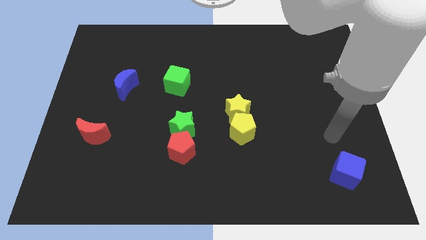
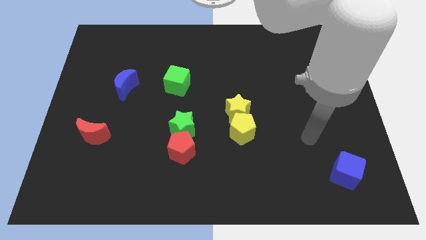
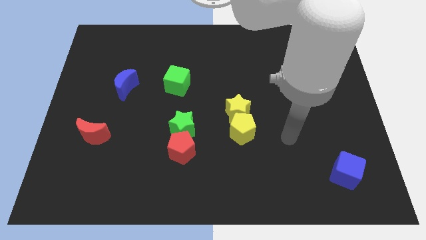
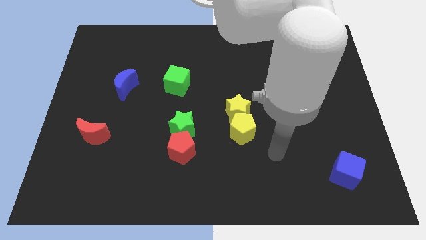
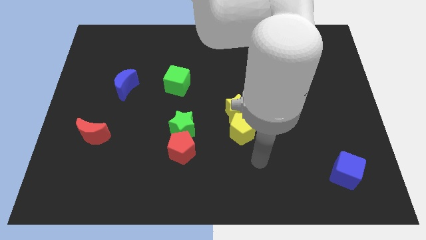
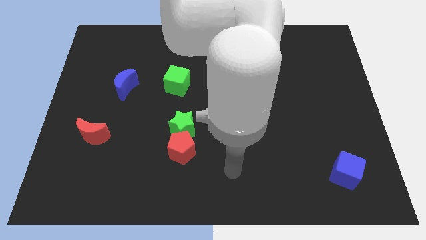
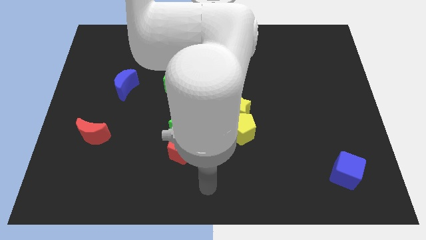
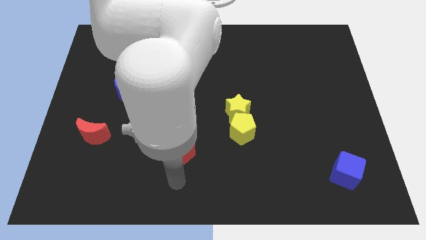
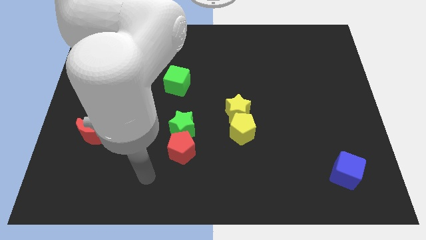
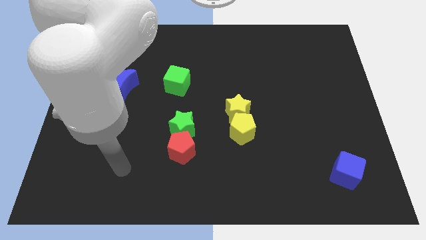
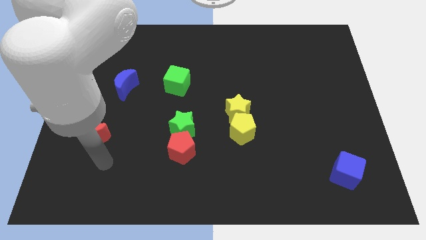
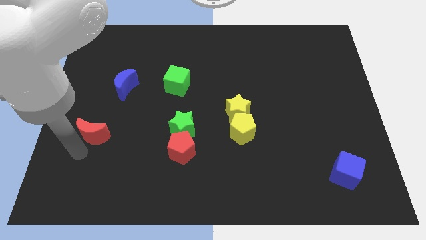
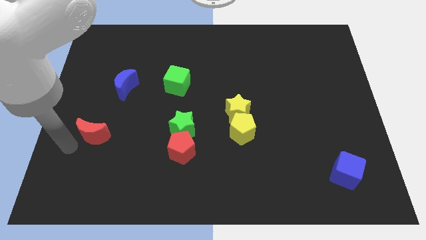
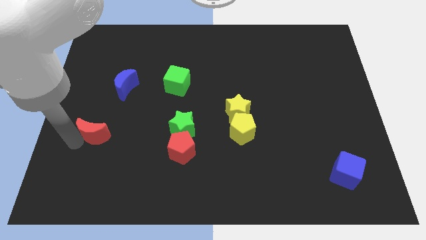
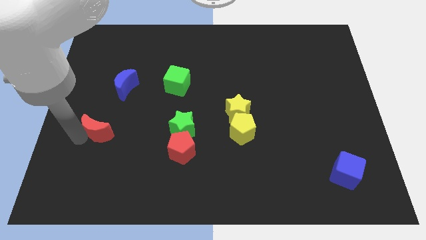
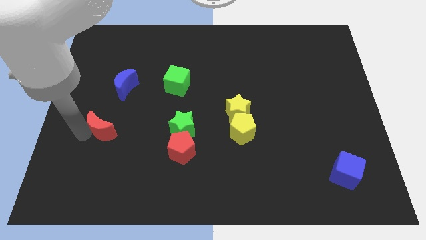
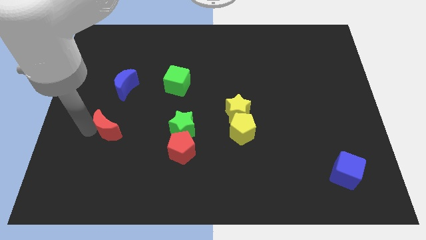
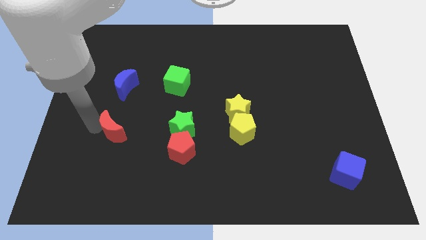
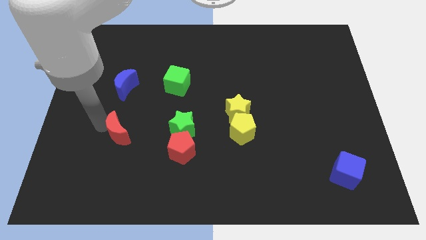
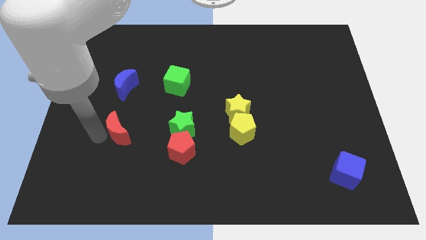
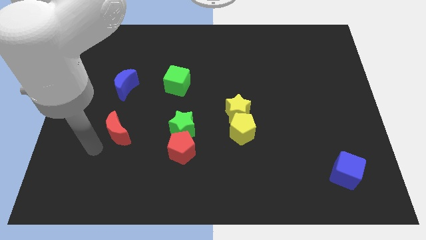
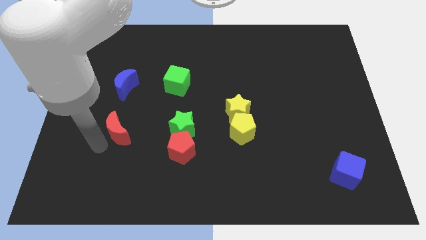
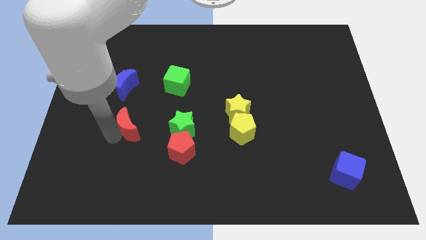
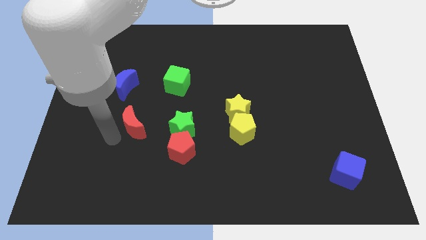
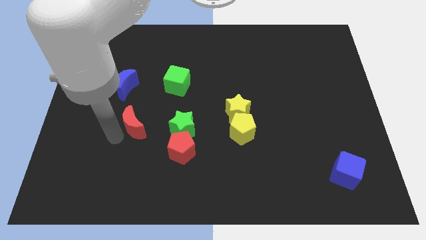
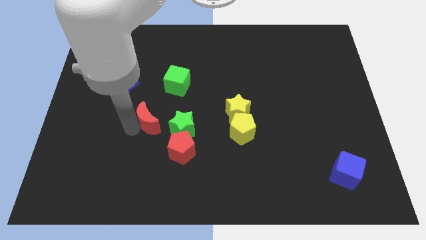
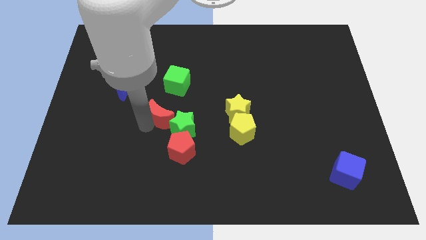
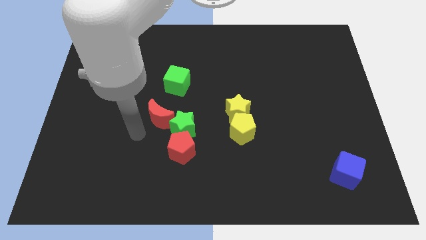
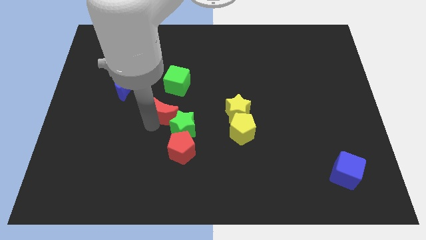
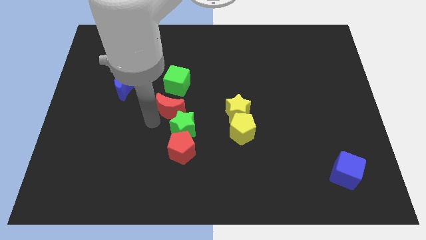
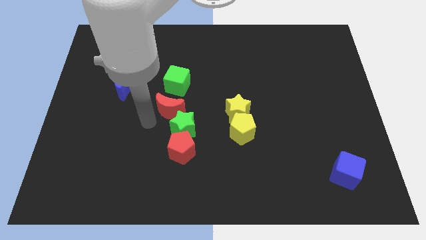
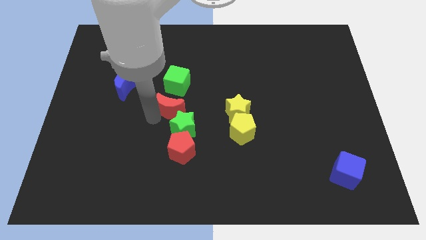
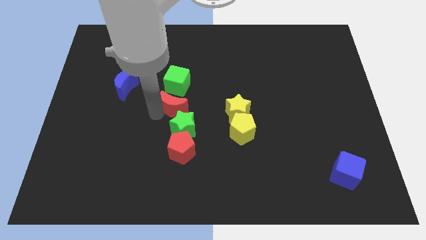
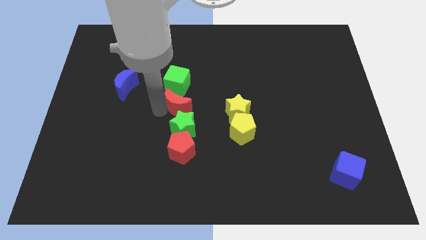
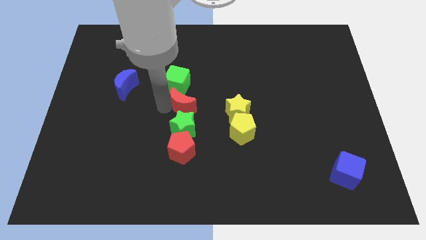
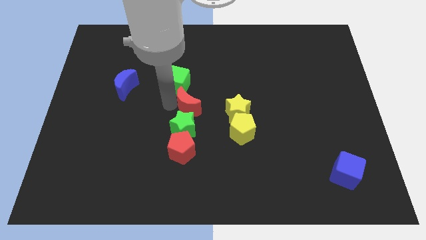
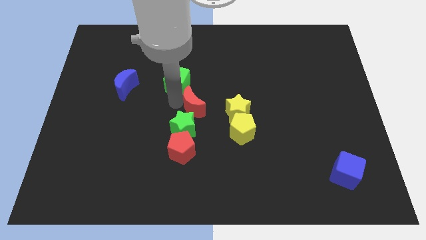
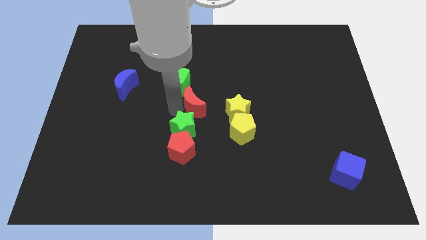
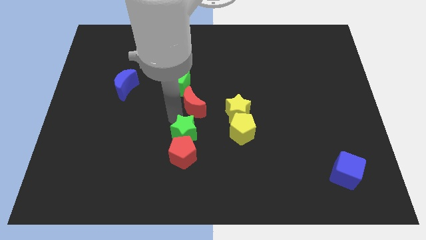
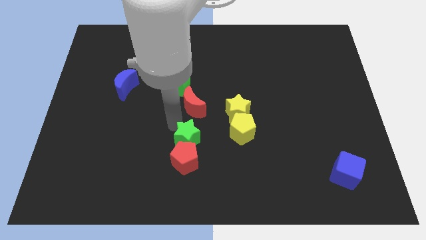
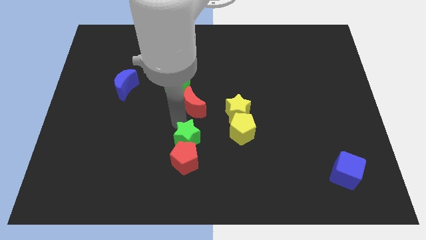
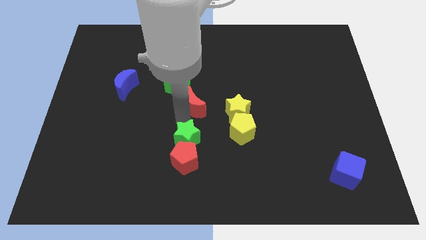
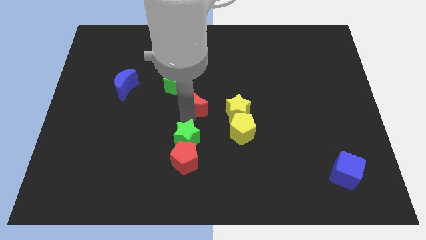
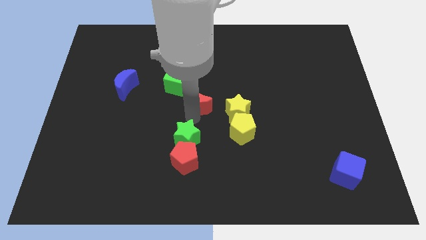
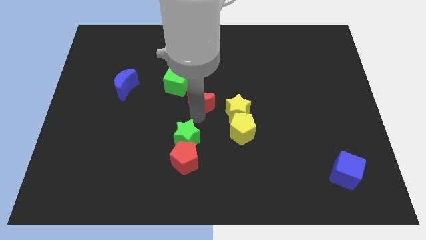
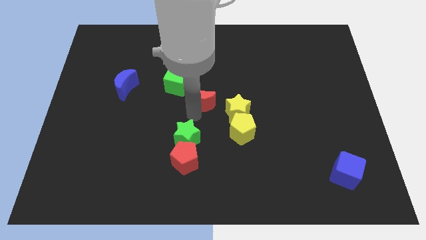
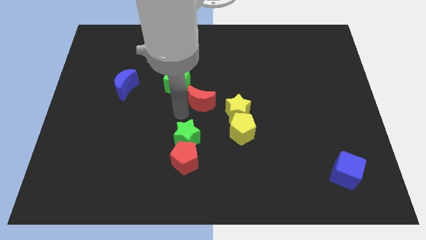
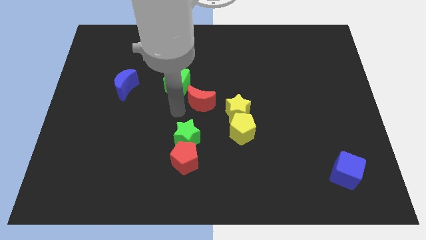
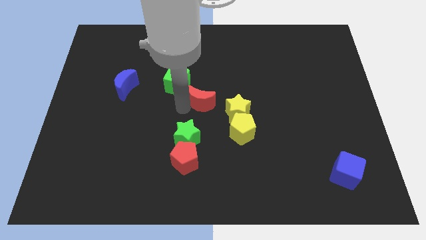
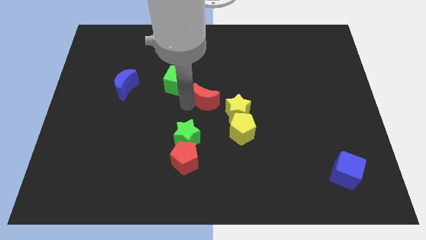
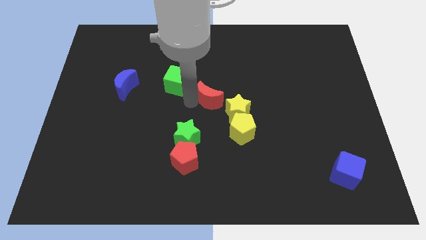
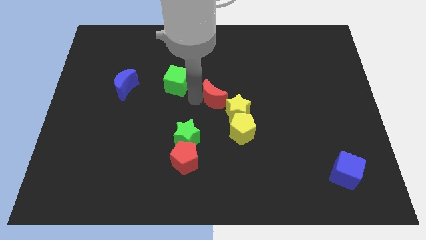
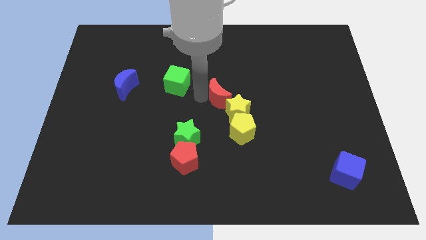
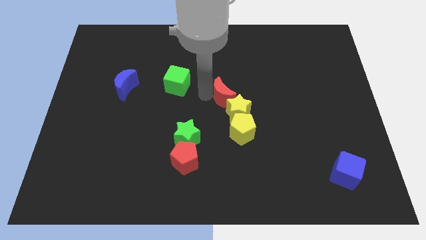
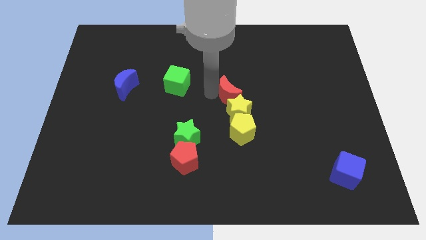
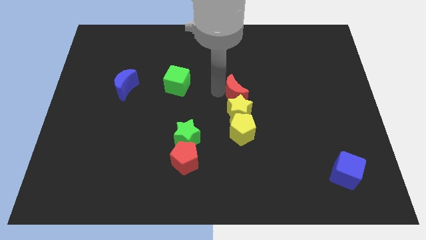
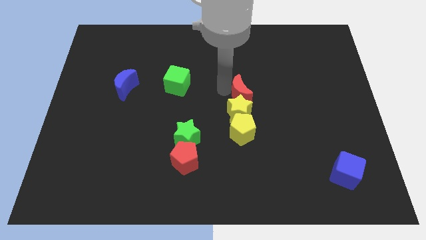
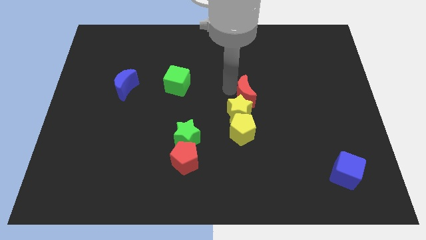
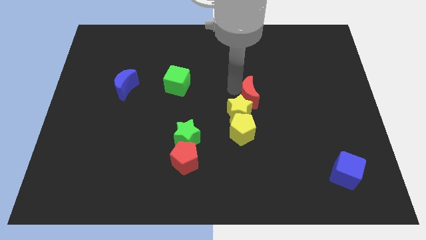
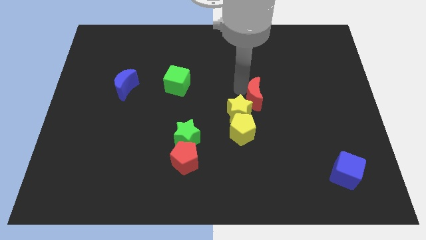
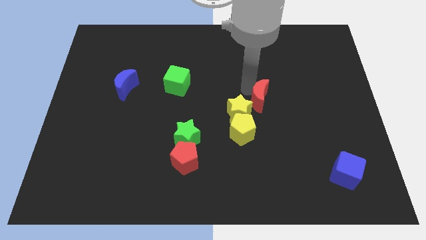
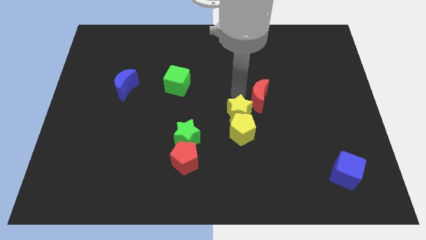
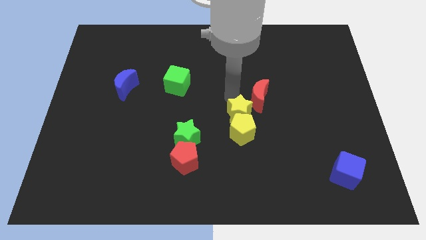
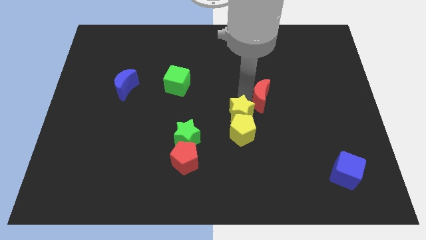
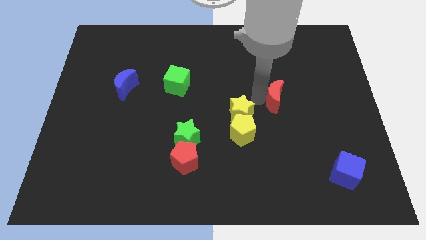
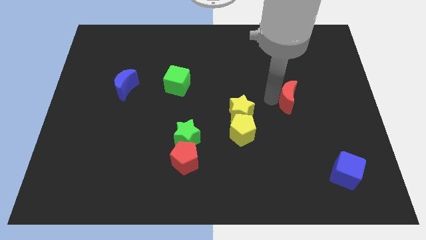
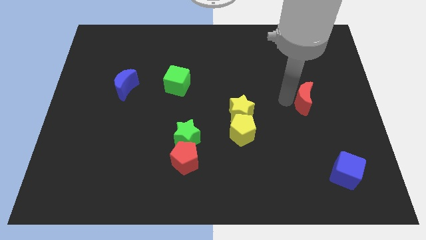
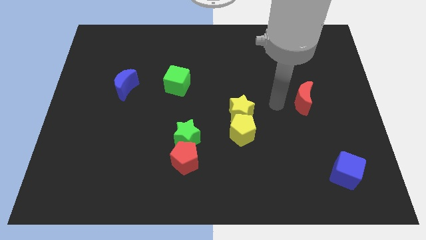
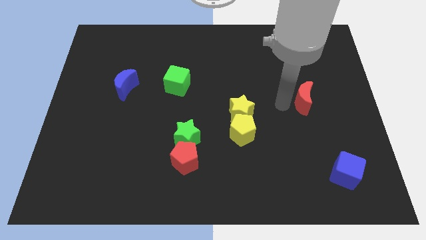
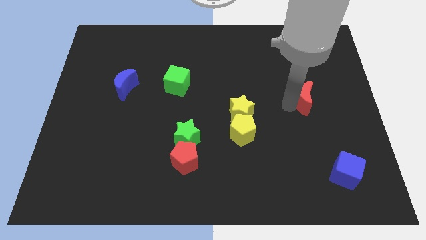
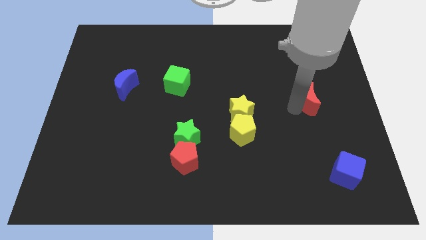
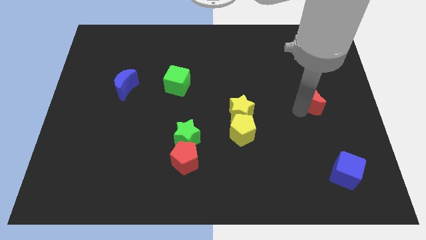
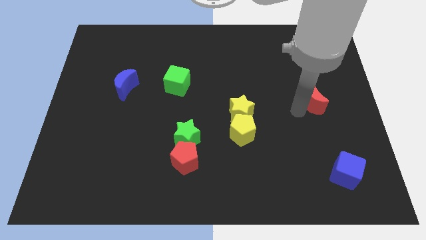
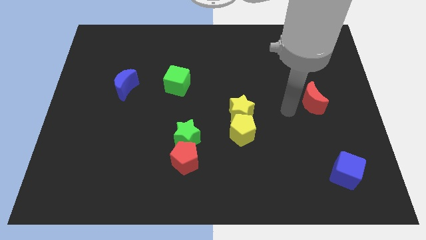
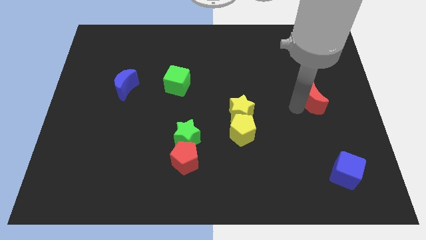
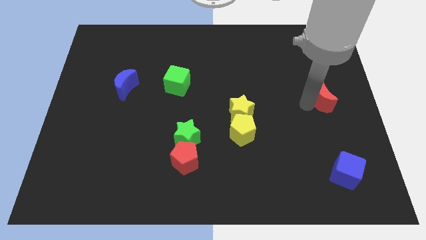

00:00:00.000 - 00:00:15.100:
move the red moon to the right side
